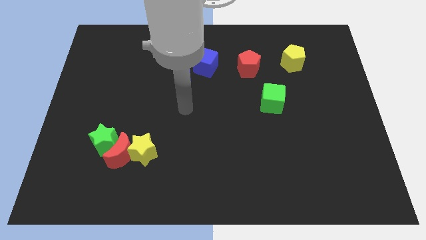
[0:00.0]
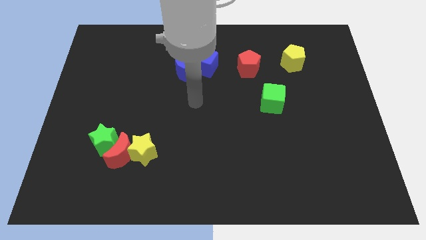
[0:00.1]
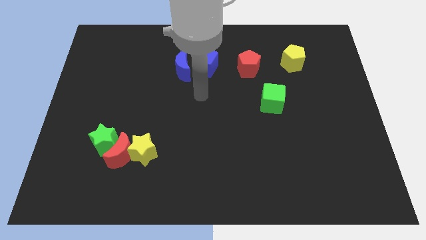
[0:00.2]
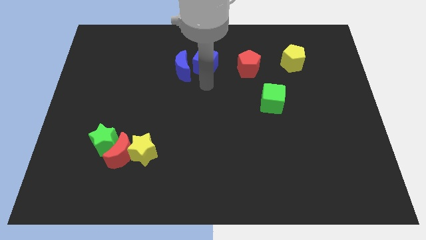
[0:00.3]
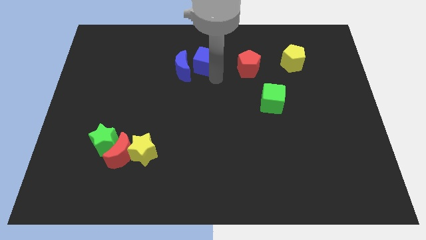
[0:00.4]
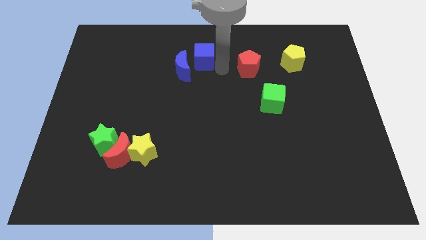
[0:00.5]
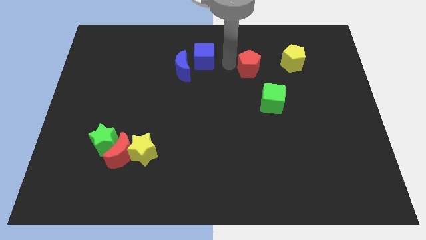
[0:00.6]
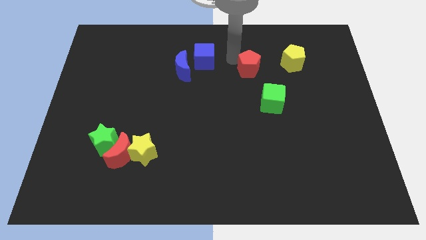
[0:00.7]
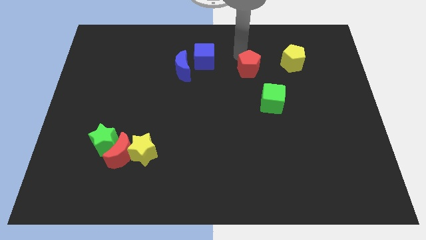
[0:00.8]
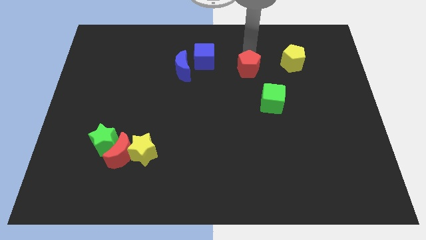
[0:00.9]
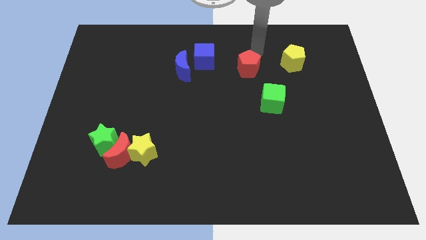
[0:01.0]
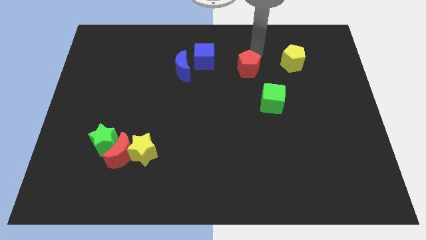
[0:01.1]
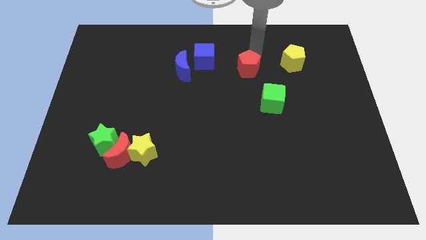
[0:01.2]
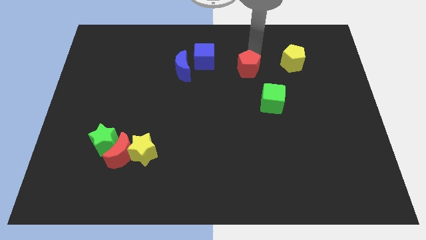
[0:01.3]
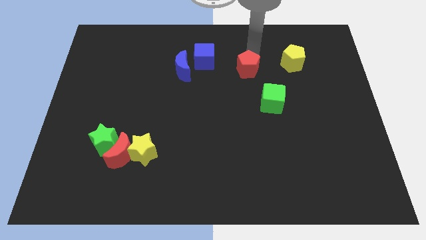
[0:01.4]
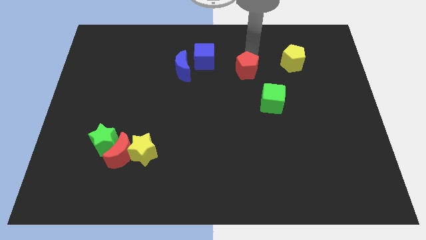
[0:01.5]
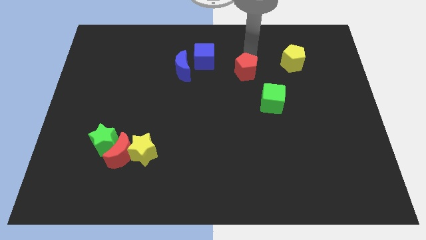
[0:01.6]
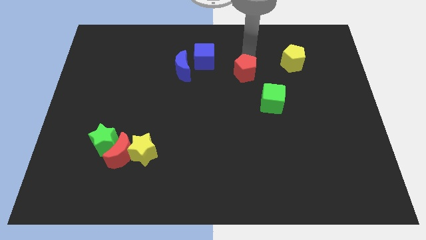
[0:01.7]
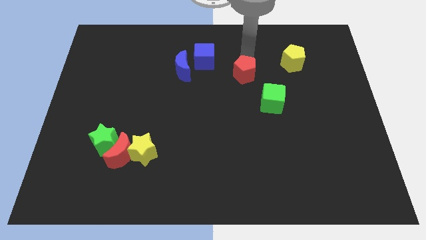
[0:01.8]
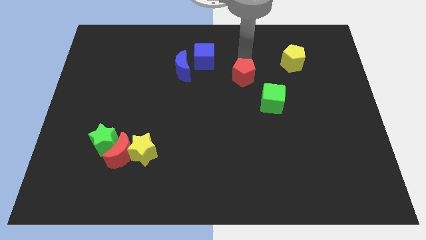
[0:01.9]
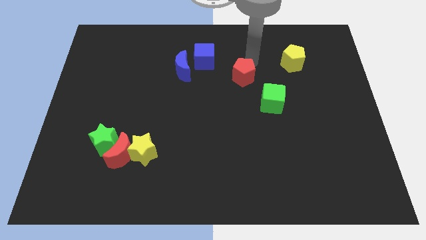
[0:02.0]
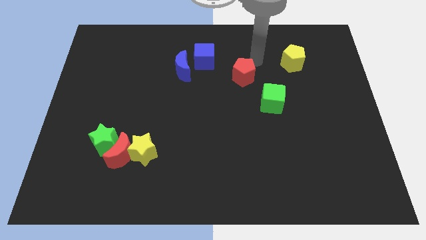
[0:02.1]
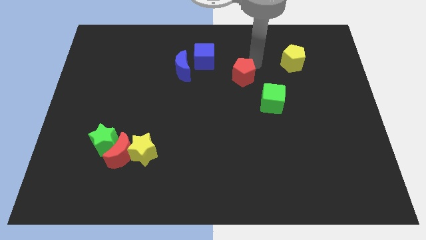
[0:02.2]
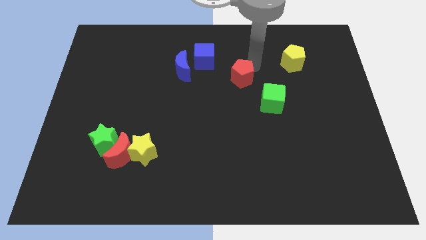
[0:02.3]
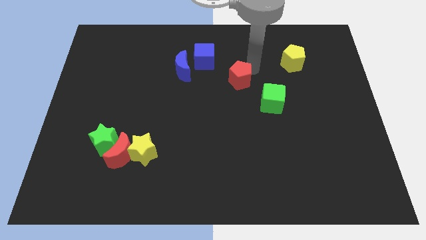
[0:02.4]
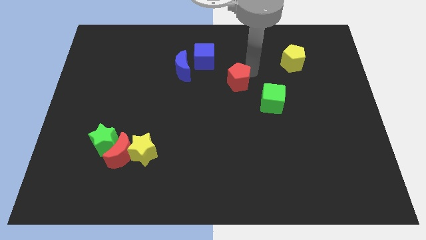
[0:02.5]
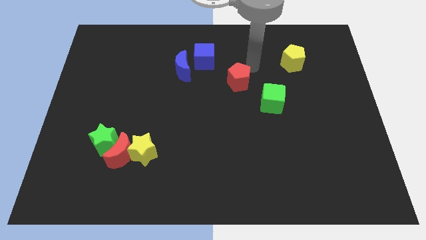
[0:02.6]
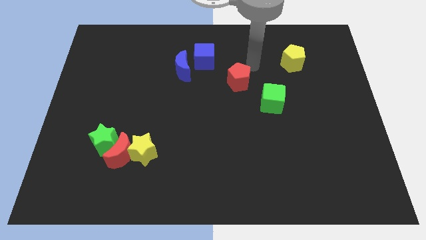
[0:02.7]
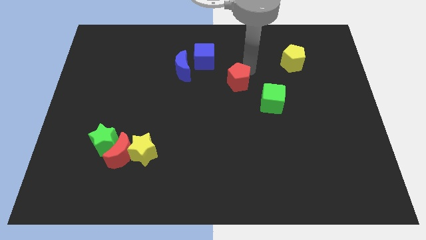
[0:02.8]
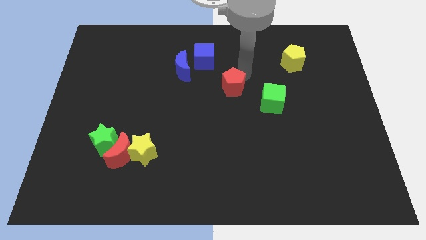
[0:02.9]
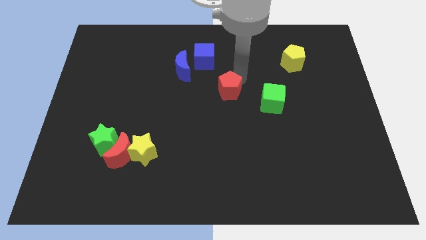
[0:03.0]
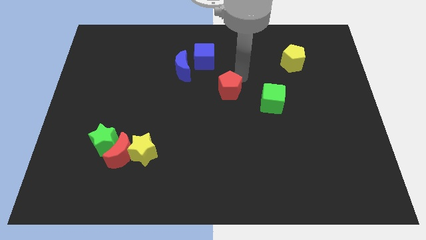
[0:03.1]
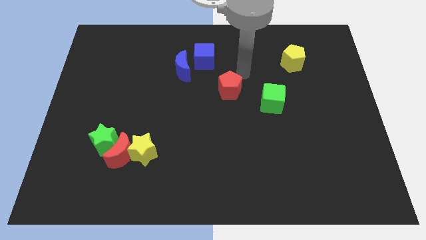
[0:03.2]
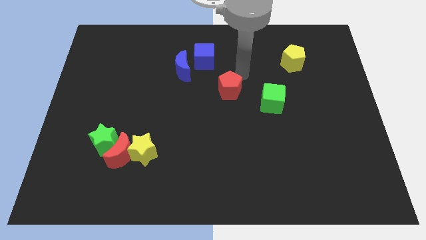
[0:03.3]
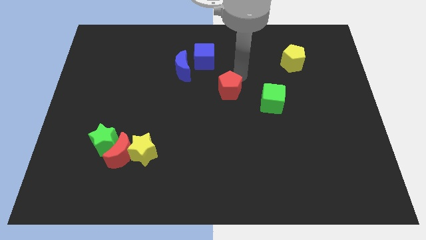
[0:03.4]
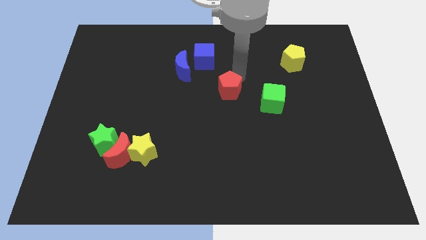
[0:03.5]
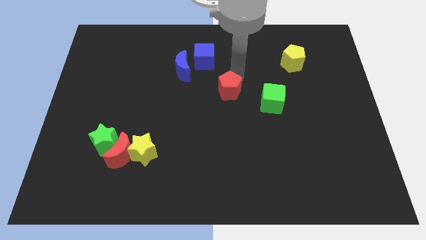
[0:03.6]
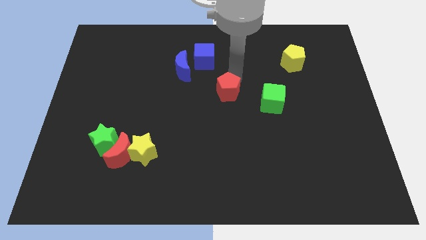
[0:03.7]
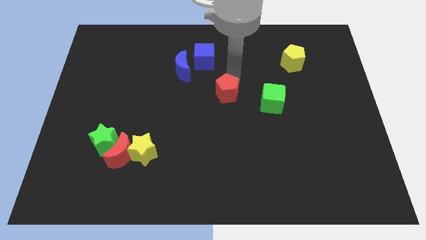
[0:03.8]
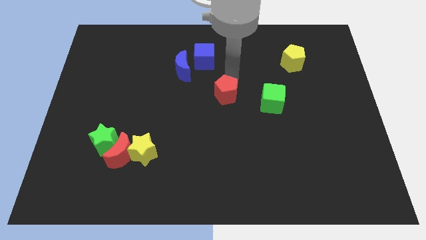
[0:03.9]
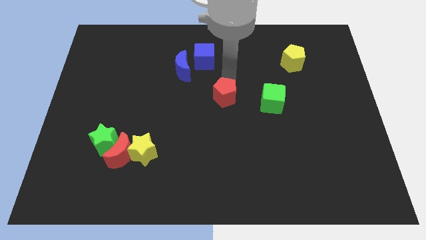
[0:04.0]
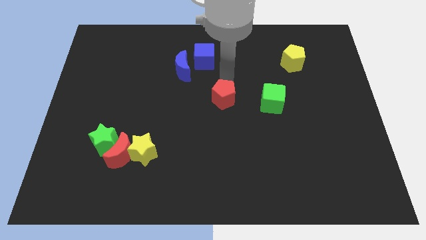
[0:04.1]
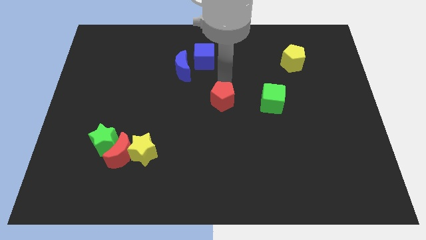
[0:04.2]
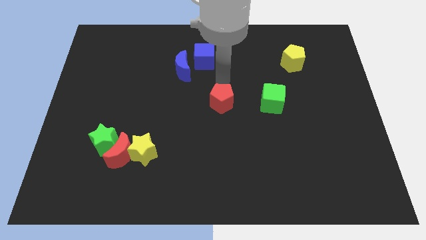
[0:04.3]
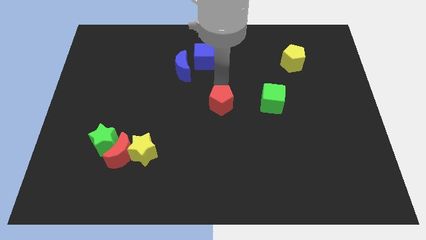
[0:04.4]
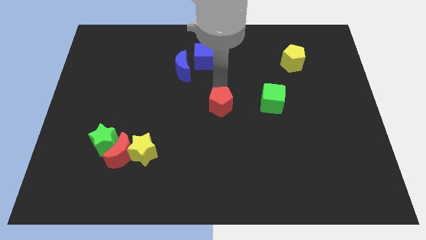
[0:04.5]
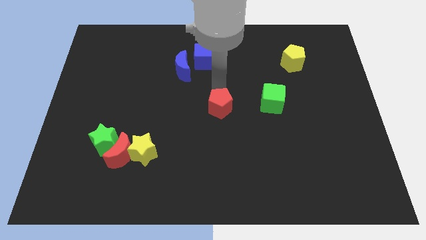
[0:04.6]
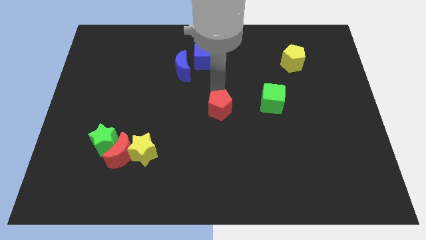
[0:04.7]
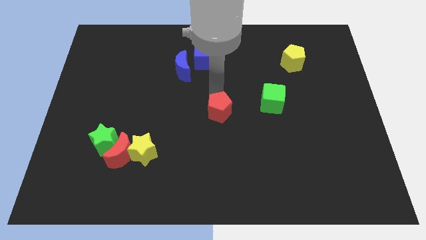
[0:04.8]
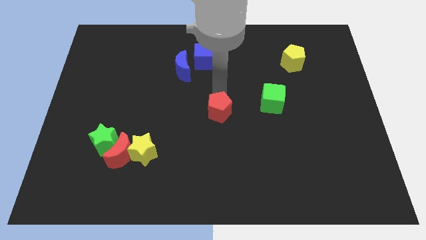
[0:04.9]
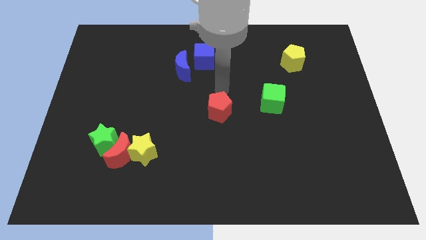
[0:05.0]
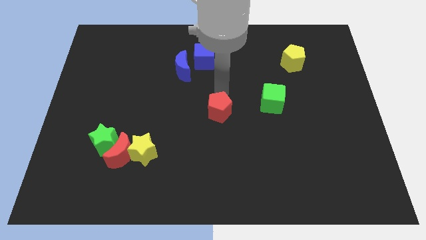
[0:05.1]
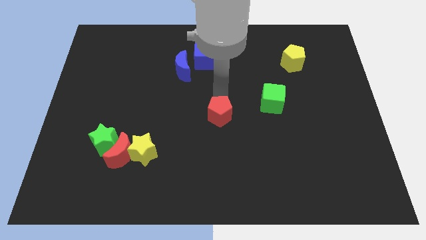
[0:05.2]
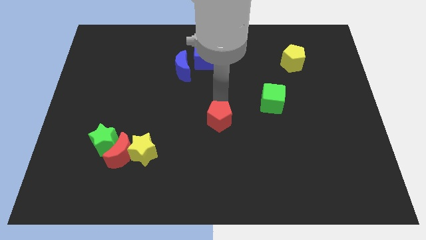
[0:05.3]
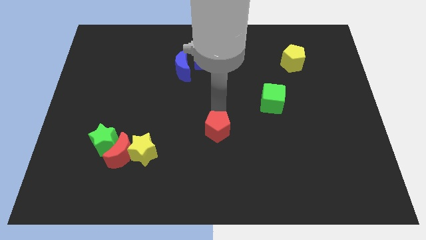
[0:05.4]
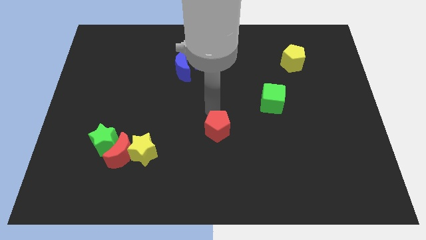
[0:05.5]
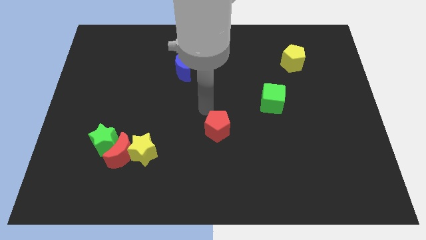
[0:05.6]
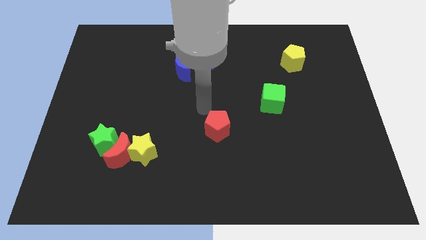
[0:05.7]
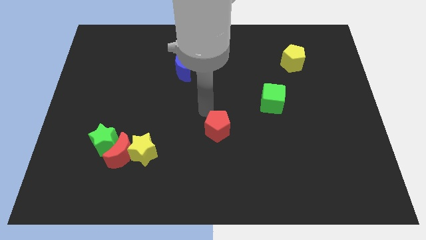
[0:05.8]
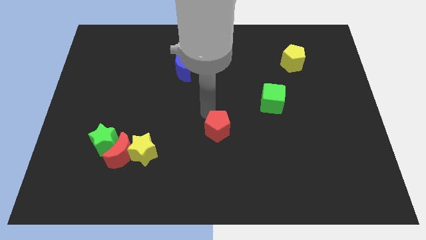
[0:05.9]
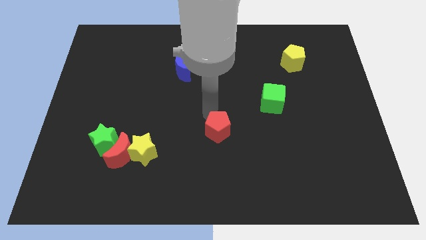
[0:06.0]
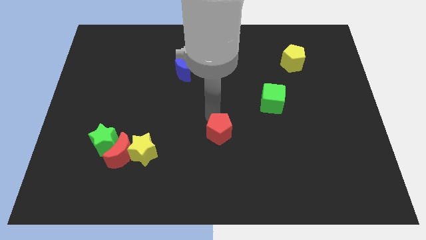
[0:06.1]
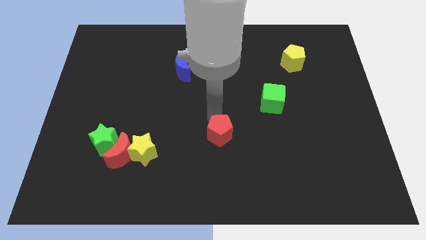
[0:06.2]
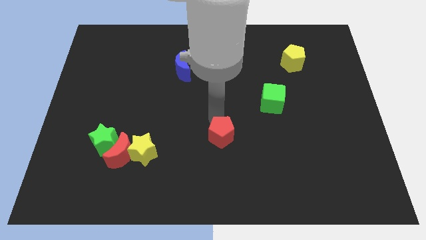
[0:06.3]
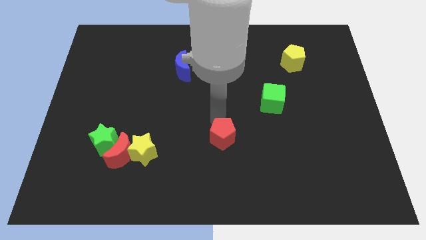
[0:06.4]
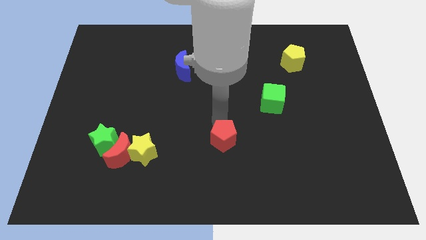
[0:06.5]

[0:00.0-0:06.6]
slide the red pentagon down

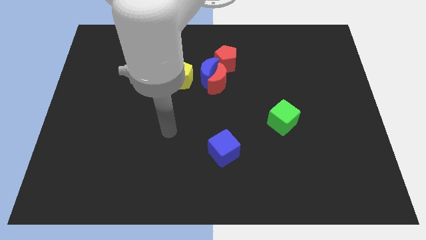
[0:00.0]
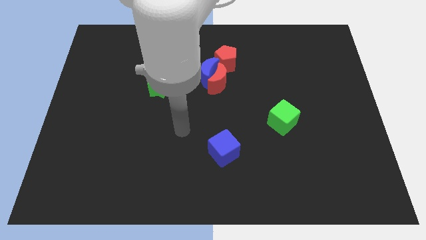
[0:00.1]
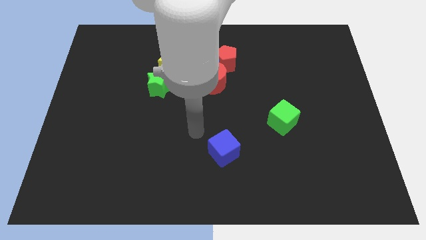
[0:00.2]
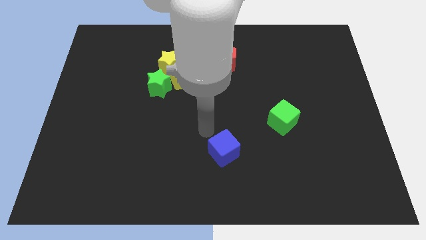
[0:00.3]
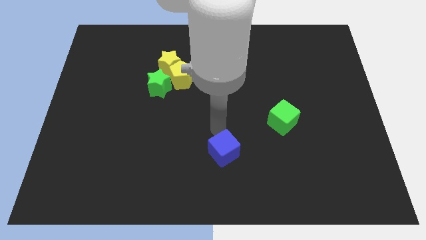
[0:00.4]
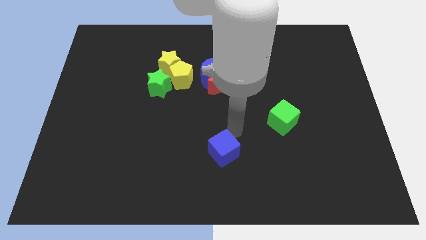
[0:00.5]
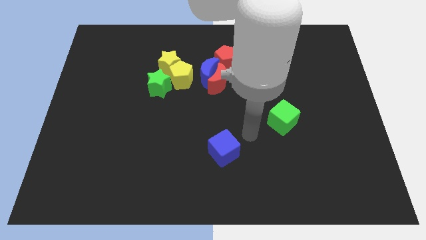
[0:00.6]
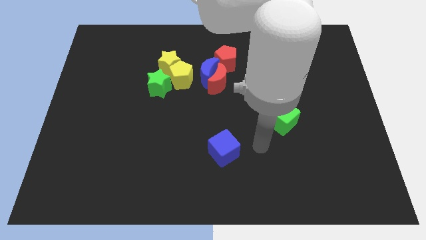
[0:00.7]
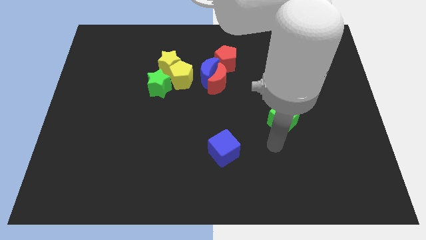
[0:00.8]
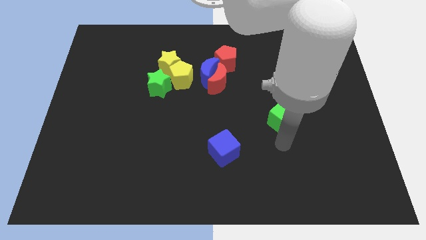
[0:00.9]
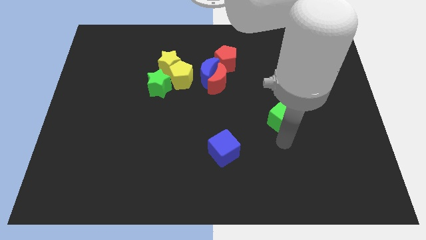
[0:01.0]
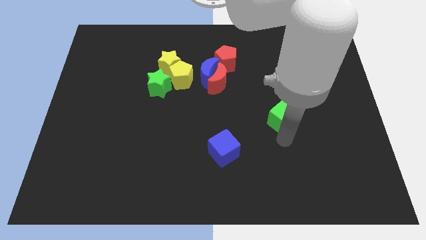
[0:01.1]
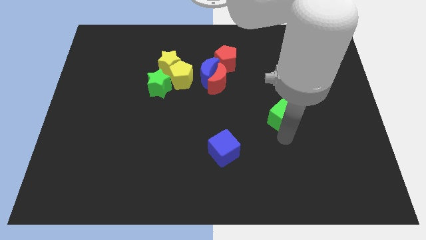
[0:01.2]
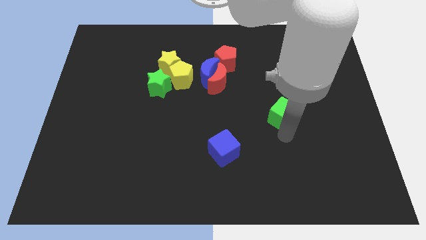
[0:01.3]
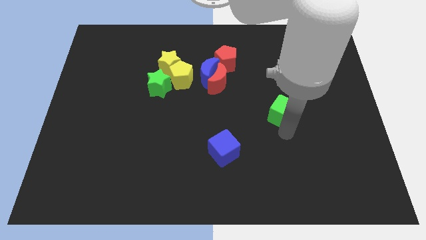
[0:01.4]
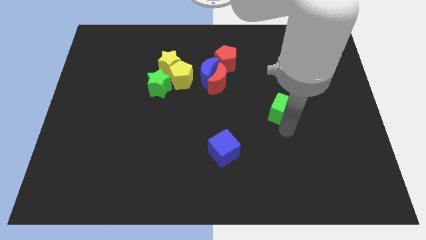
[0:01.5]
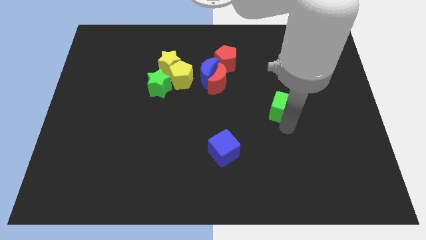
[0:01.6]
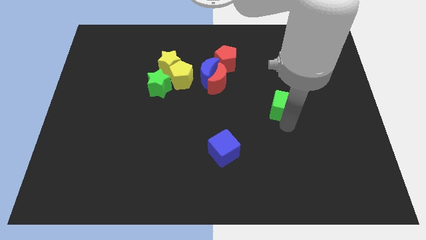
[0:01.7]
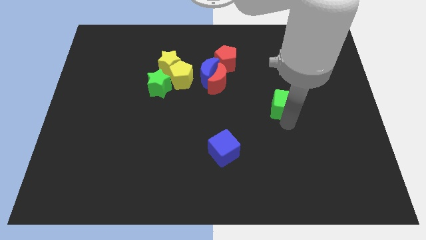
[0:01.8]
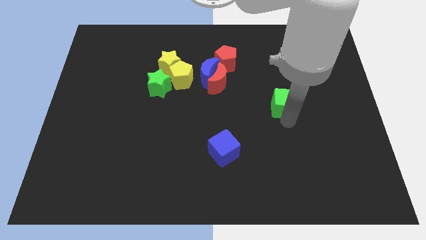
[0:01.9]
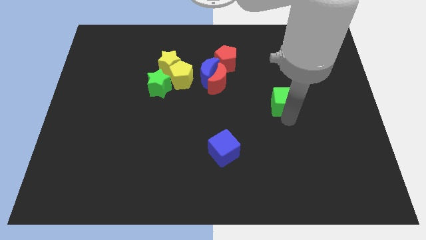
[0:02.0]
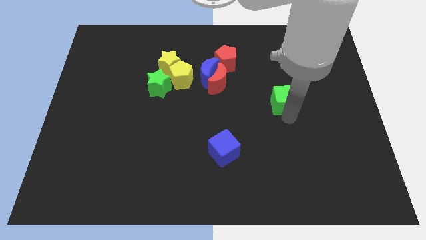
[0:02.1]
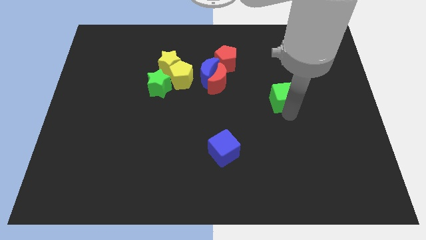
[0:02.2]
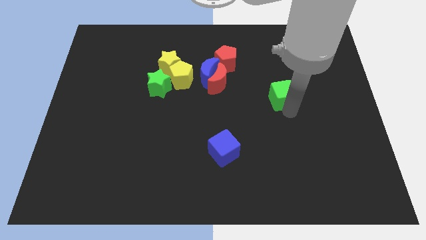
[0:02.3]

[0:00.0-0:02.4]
slightly slide the green cube upwards
